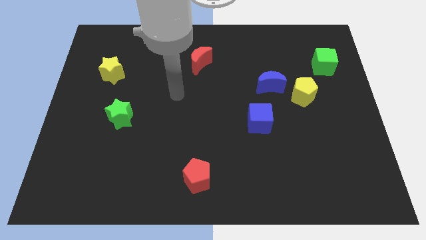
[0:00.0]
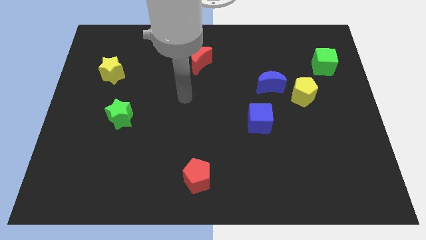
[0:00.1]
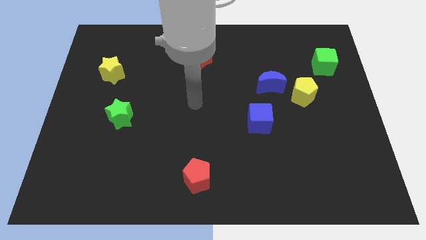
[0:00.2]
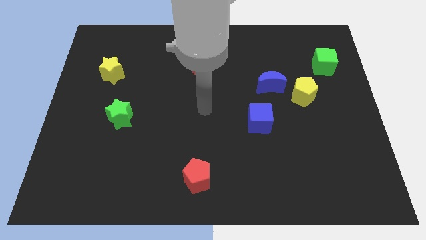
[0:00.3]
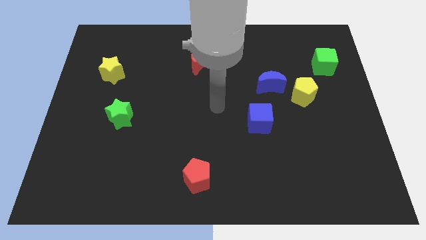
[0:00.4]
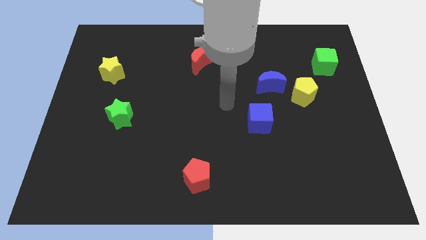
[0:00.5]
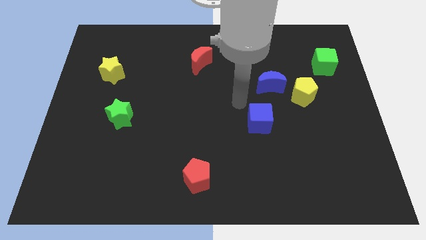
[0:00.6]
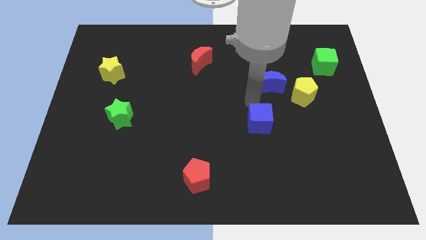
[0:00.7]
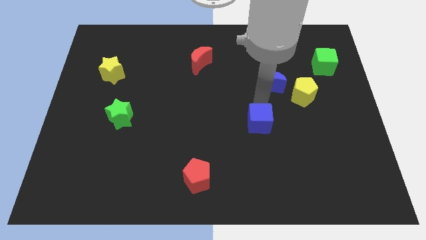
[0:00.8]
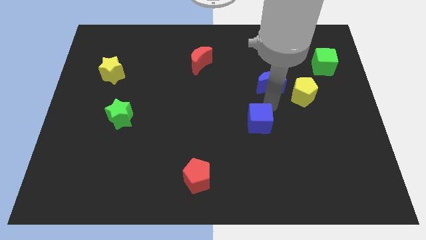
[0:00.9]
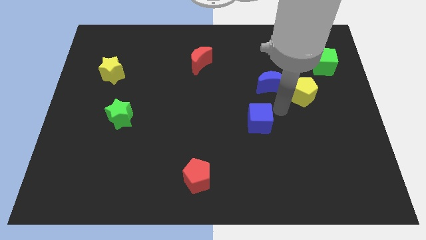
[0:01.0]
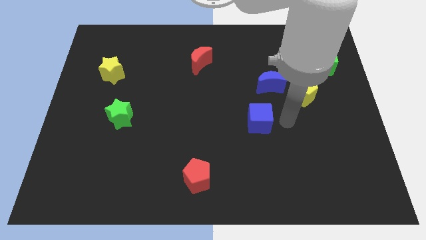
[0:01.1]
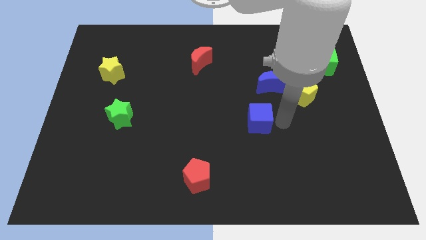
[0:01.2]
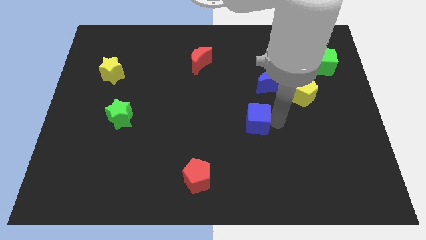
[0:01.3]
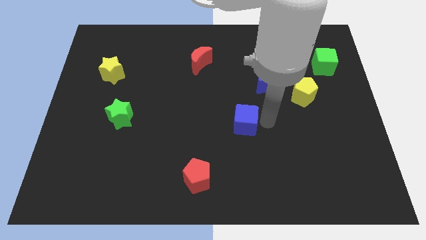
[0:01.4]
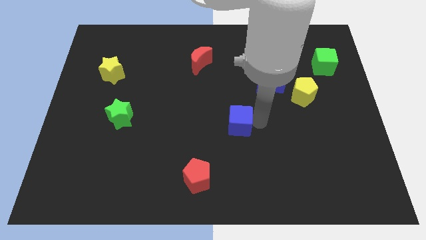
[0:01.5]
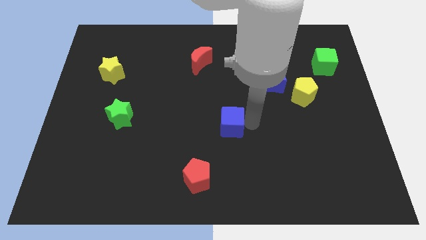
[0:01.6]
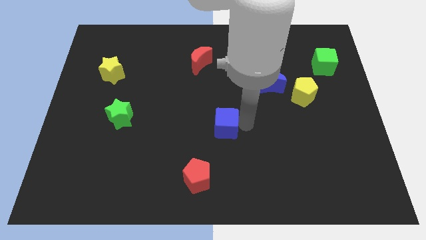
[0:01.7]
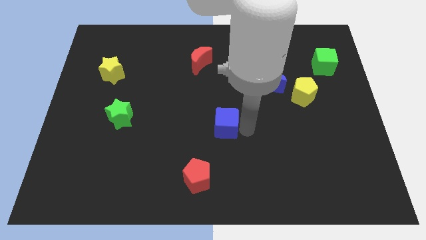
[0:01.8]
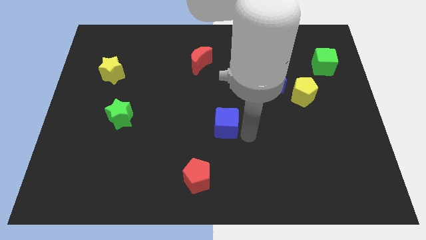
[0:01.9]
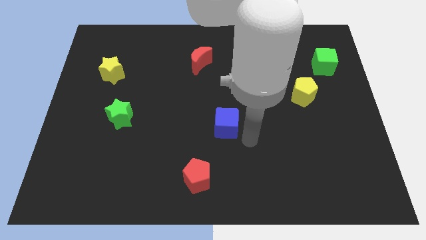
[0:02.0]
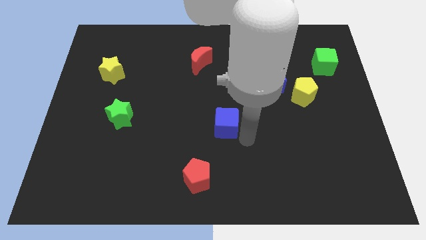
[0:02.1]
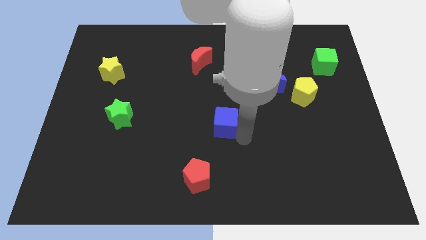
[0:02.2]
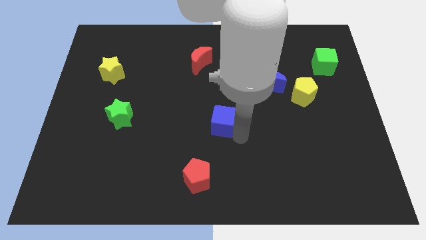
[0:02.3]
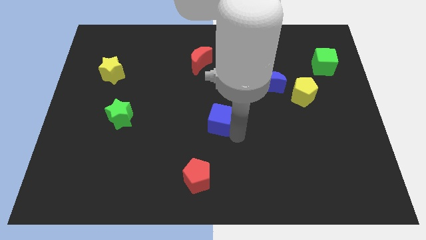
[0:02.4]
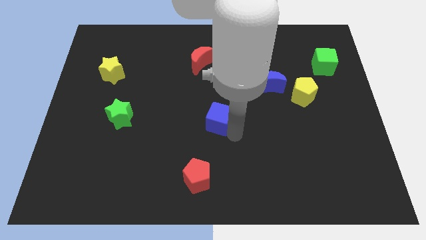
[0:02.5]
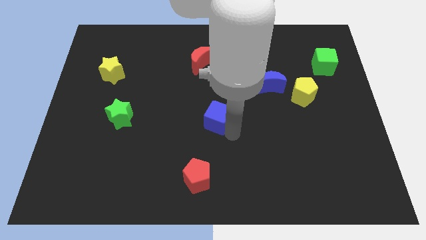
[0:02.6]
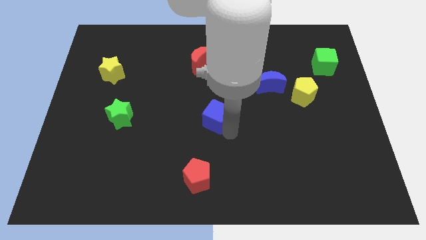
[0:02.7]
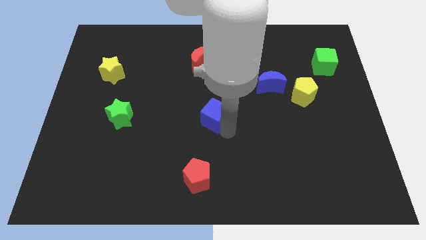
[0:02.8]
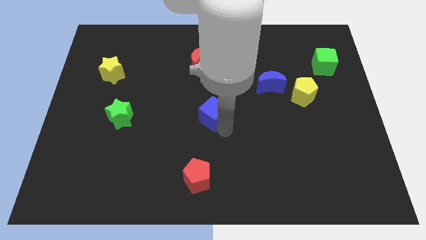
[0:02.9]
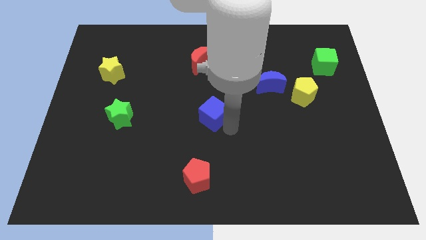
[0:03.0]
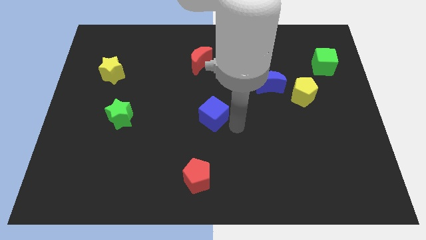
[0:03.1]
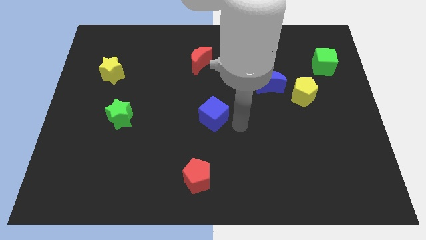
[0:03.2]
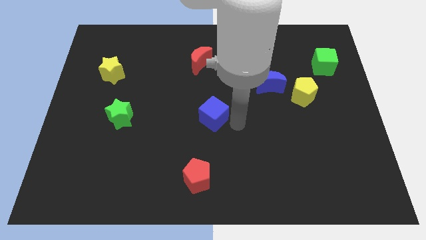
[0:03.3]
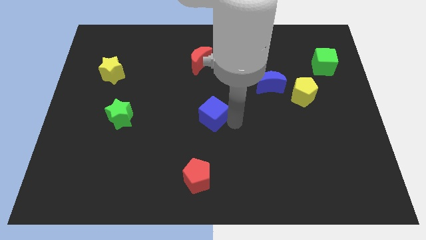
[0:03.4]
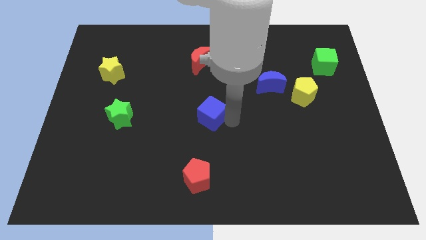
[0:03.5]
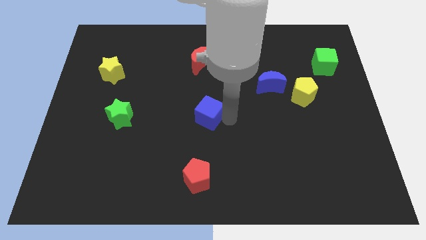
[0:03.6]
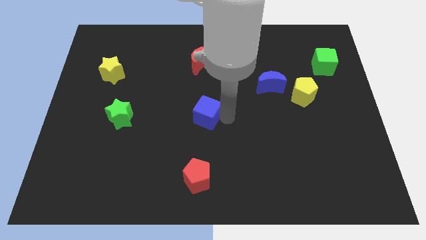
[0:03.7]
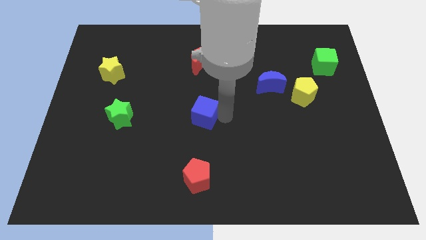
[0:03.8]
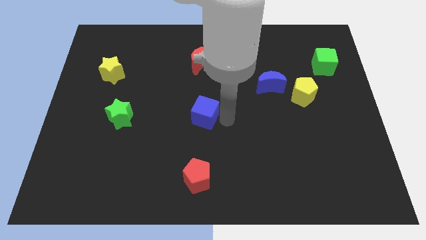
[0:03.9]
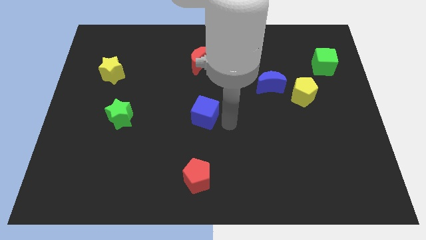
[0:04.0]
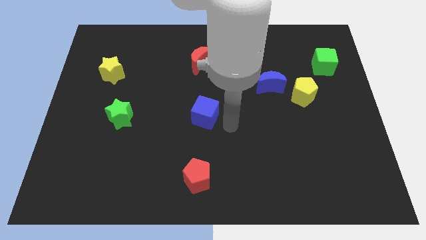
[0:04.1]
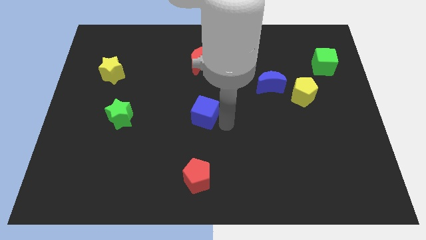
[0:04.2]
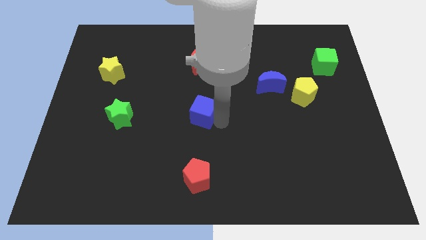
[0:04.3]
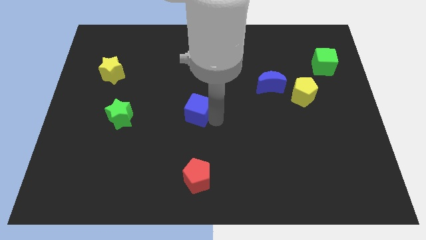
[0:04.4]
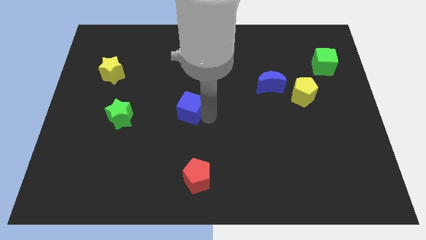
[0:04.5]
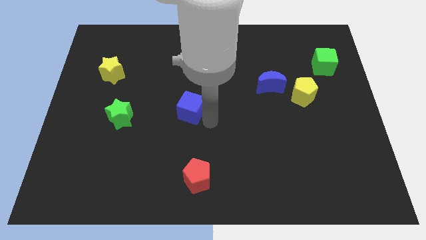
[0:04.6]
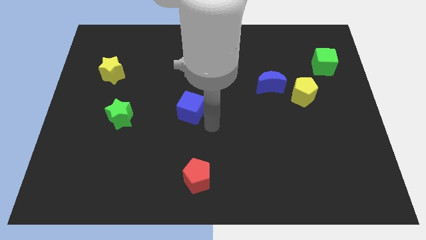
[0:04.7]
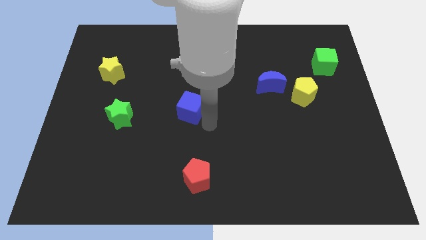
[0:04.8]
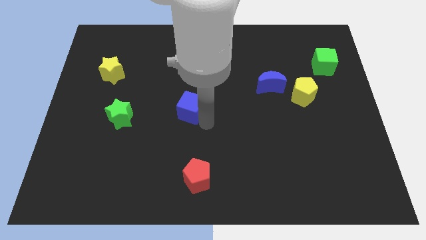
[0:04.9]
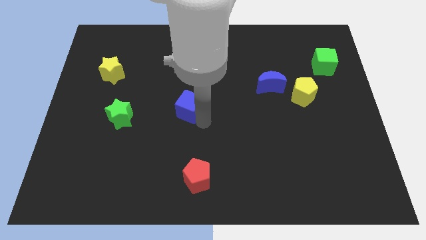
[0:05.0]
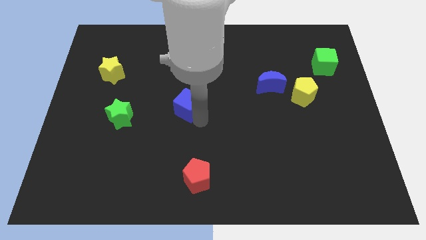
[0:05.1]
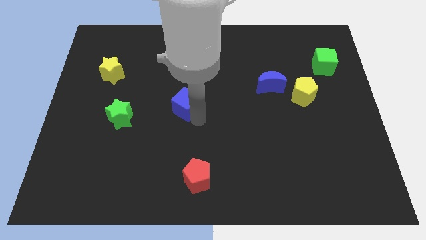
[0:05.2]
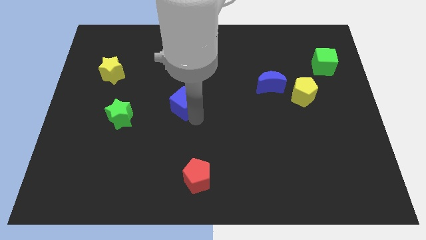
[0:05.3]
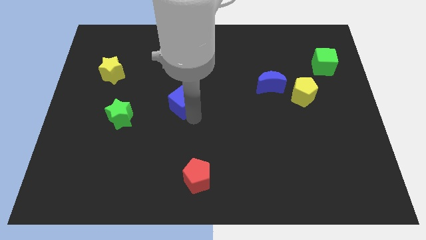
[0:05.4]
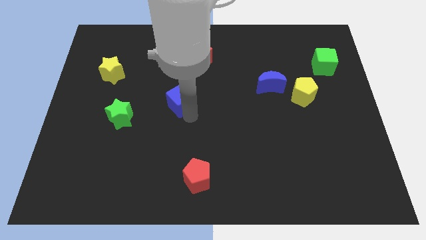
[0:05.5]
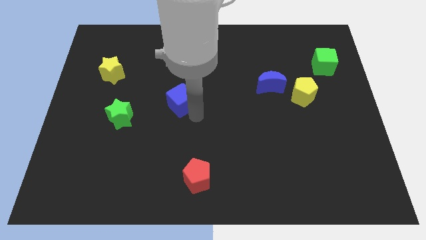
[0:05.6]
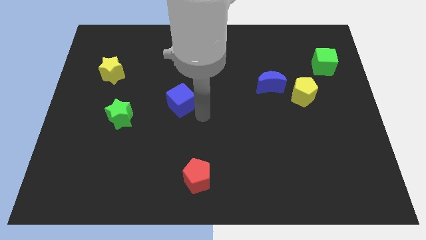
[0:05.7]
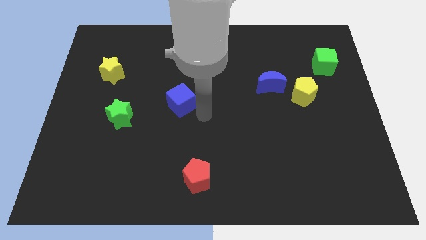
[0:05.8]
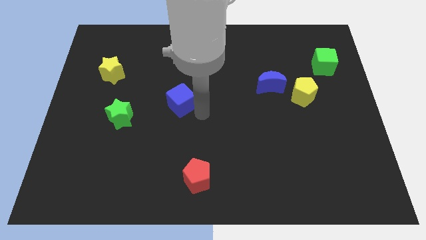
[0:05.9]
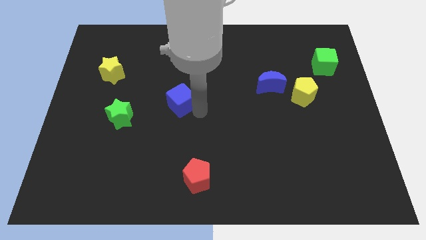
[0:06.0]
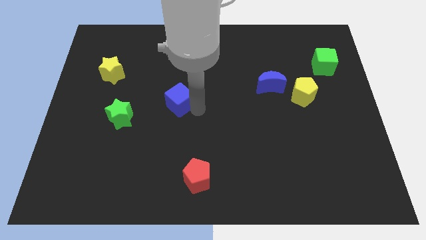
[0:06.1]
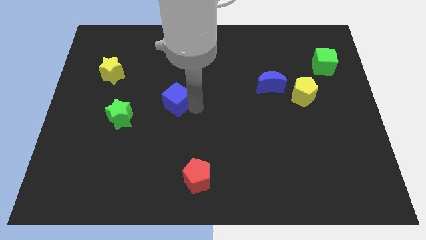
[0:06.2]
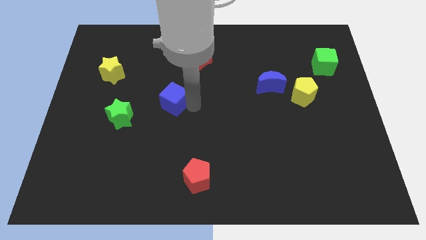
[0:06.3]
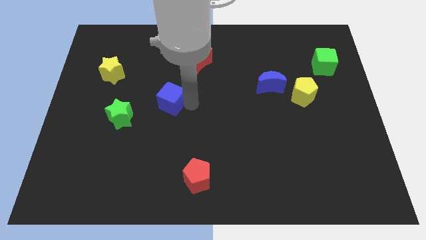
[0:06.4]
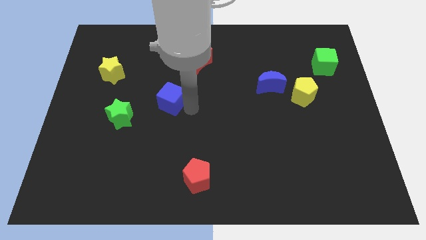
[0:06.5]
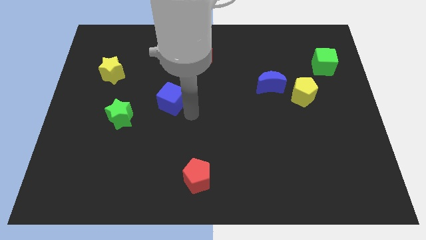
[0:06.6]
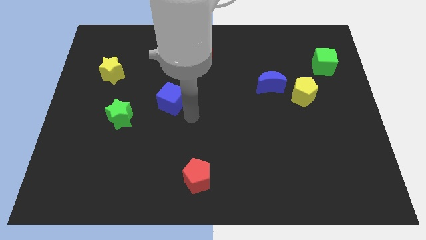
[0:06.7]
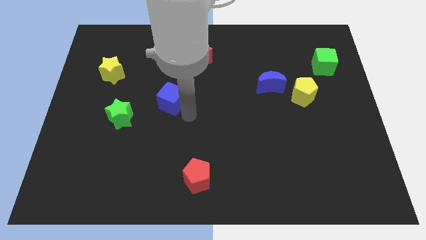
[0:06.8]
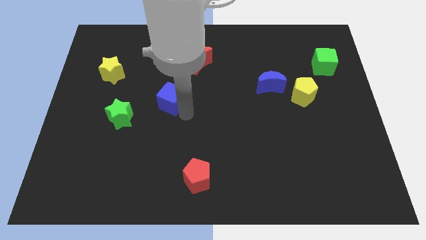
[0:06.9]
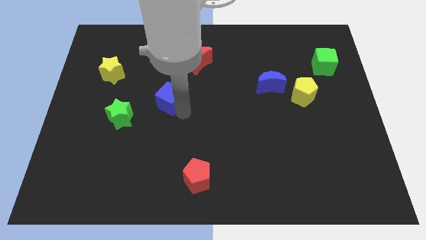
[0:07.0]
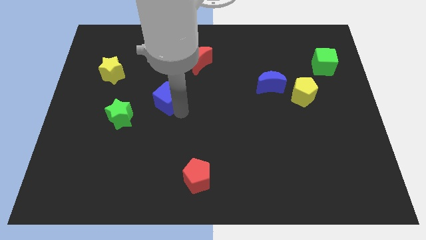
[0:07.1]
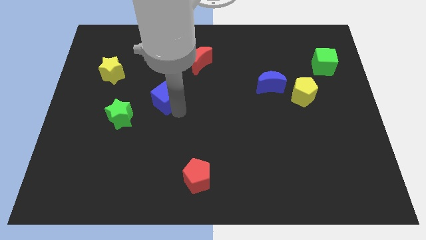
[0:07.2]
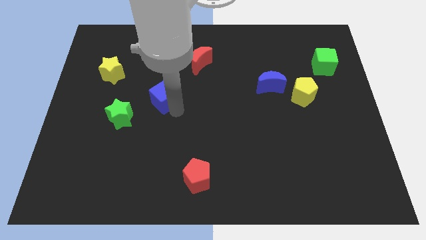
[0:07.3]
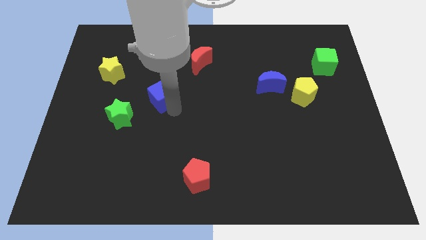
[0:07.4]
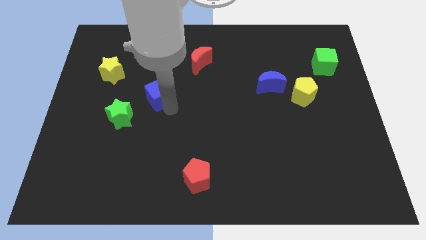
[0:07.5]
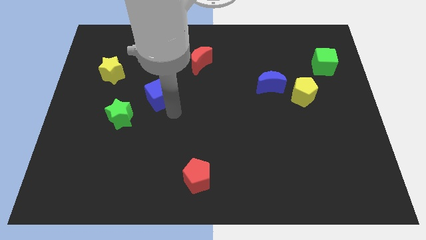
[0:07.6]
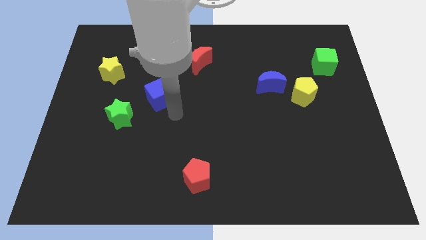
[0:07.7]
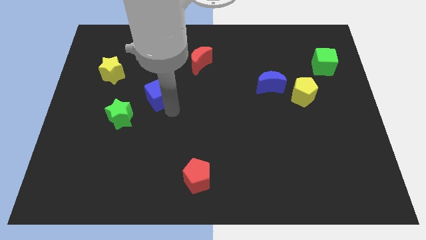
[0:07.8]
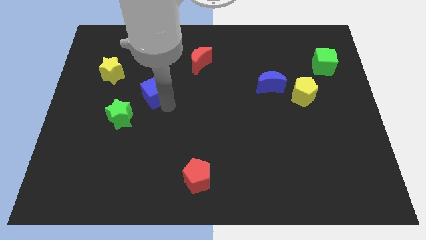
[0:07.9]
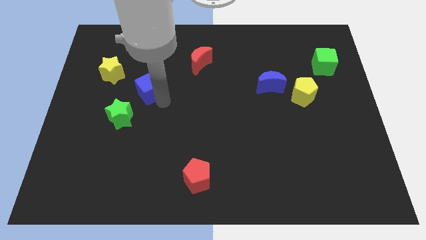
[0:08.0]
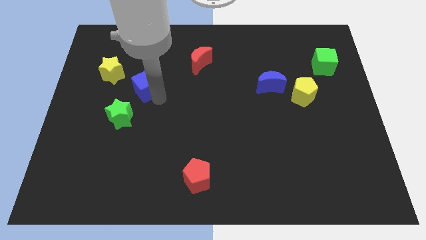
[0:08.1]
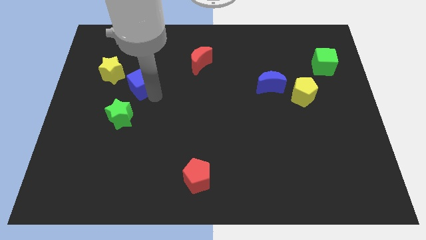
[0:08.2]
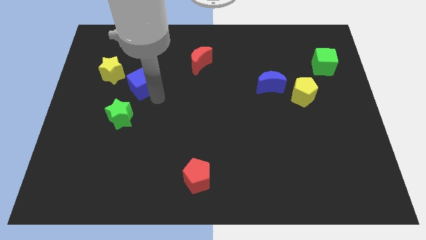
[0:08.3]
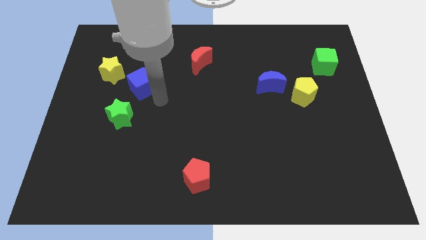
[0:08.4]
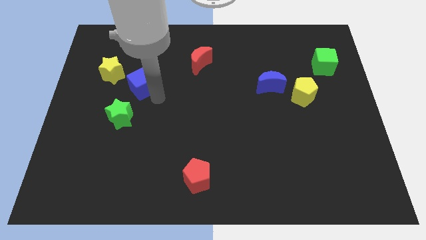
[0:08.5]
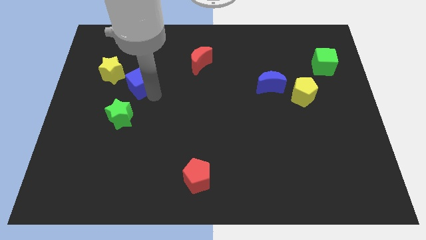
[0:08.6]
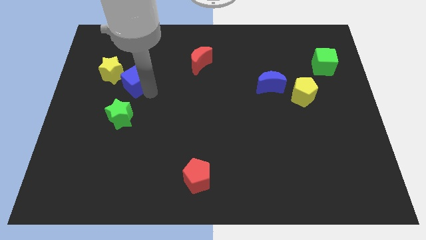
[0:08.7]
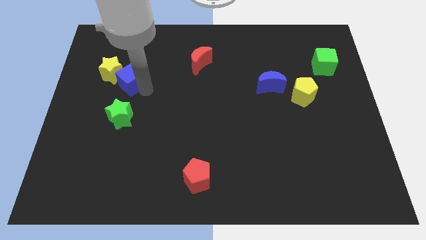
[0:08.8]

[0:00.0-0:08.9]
slide the blue cube to the yellow star
